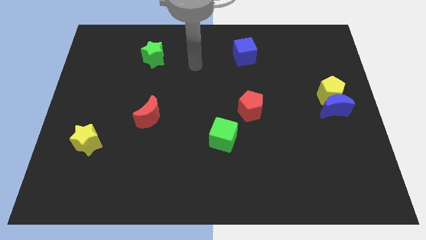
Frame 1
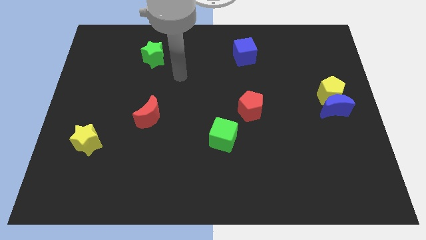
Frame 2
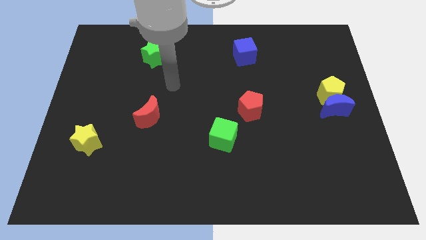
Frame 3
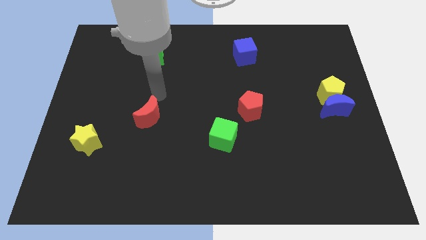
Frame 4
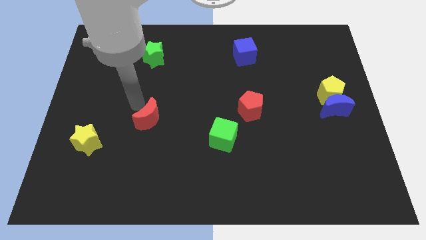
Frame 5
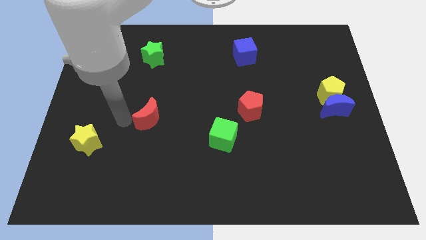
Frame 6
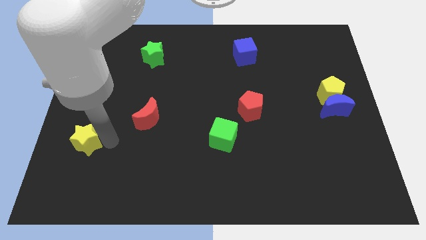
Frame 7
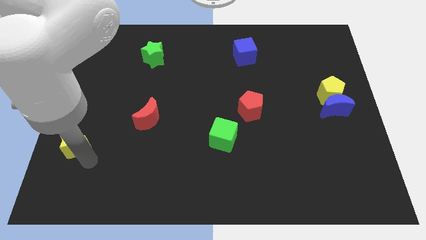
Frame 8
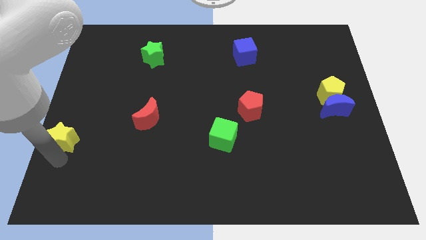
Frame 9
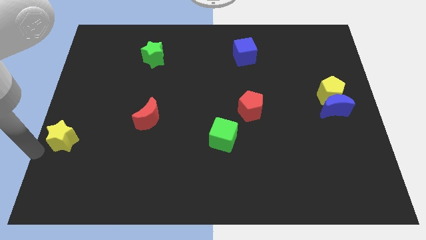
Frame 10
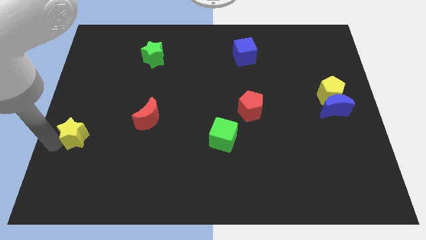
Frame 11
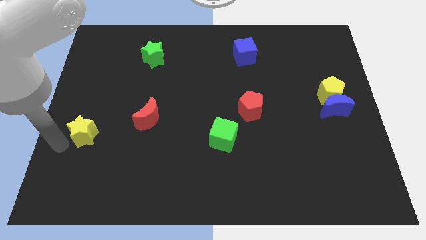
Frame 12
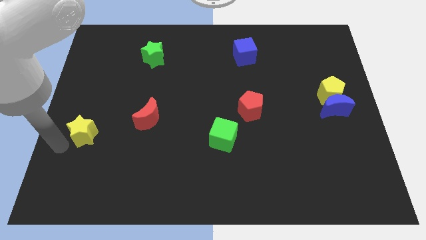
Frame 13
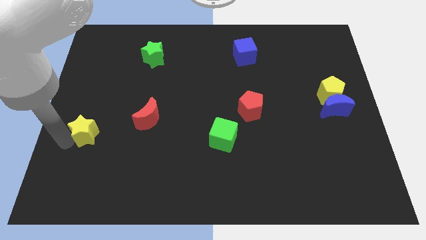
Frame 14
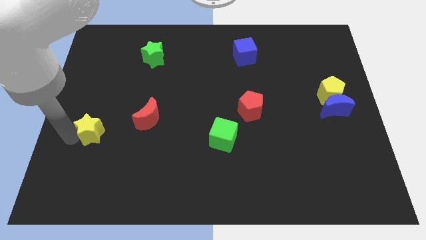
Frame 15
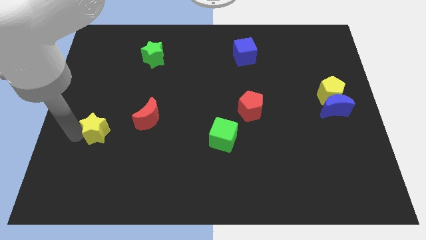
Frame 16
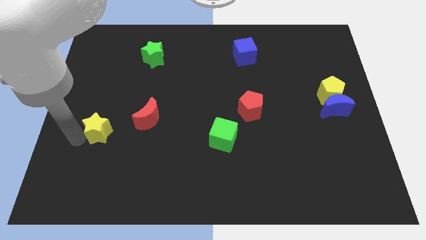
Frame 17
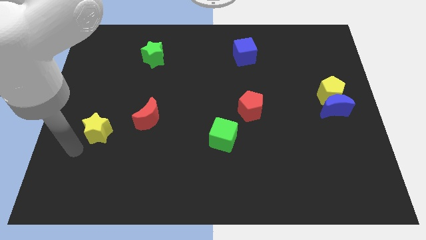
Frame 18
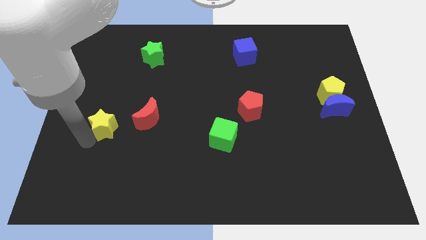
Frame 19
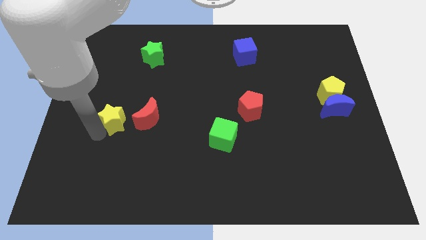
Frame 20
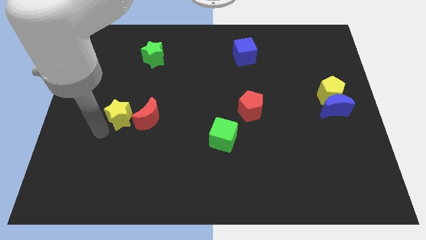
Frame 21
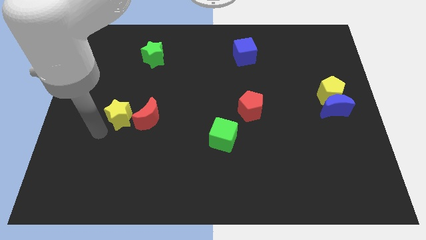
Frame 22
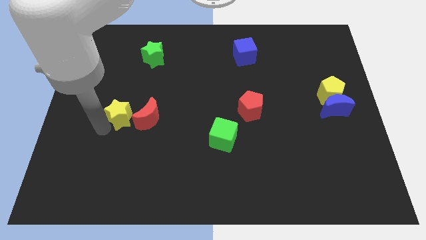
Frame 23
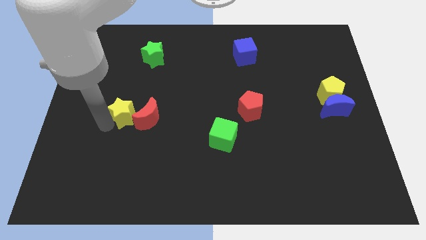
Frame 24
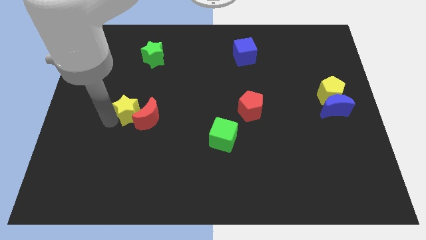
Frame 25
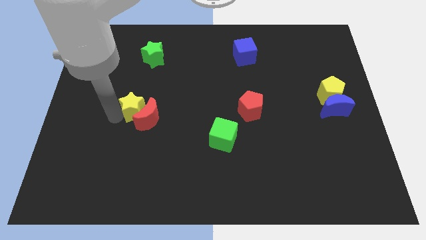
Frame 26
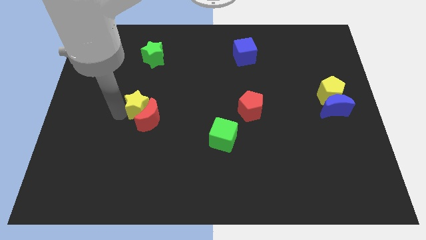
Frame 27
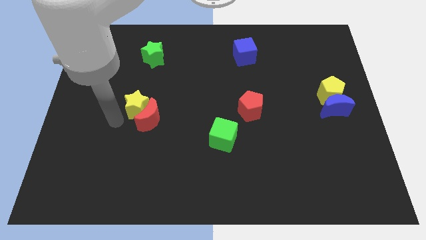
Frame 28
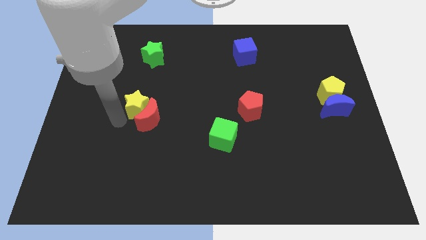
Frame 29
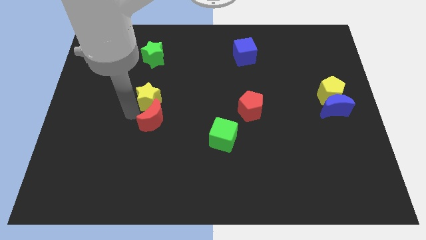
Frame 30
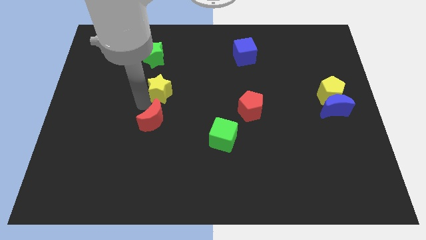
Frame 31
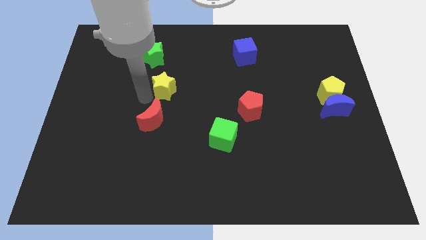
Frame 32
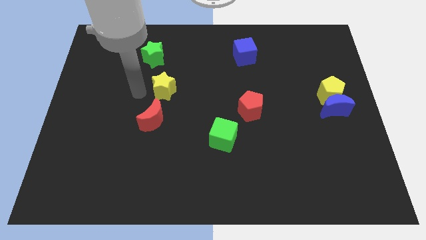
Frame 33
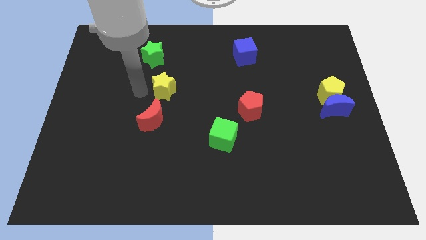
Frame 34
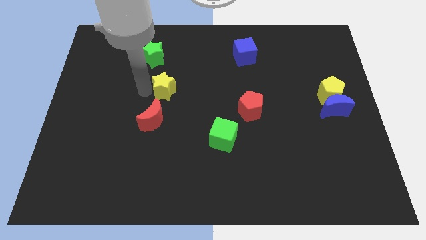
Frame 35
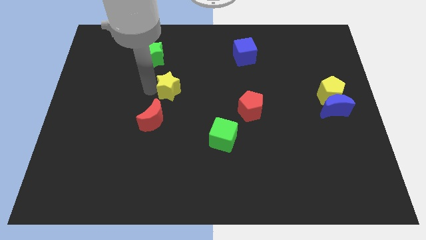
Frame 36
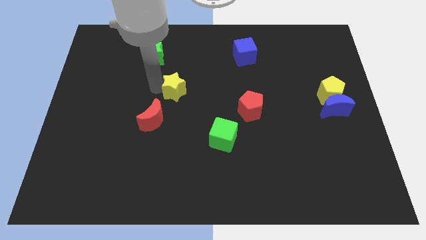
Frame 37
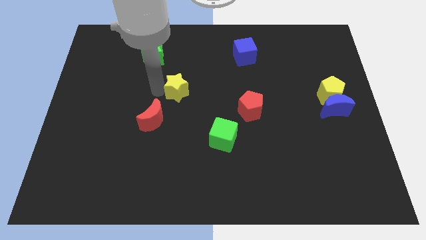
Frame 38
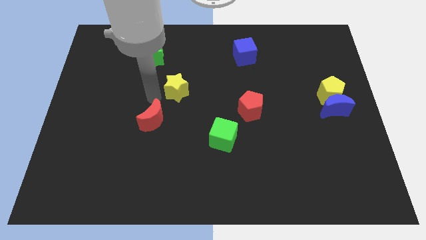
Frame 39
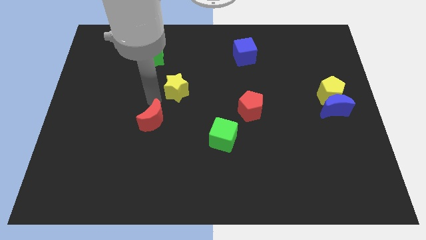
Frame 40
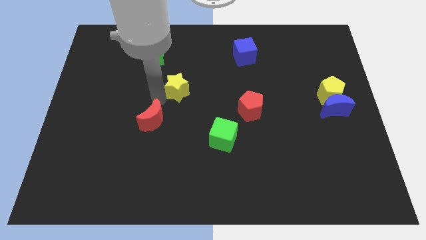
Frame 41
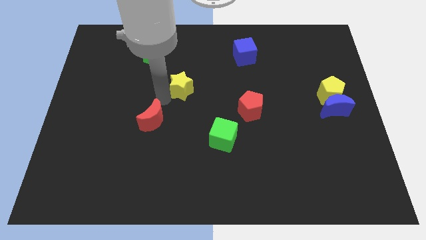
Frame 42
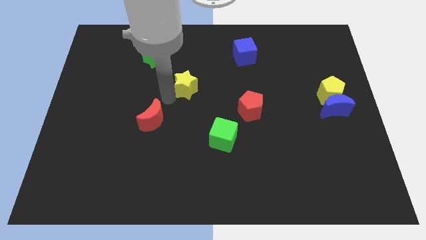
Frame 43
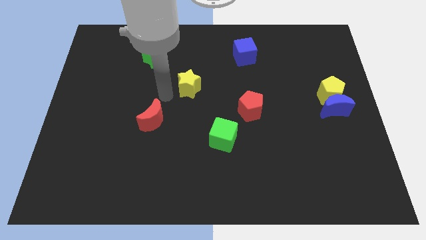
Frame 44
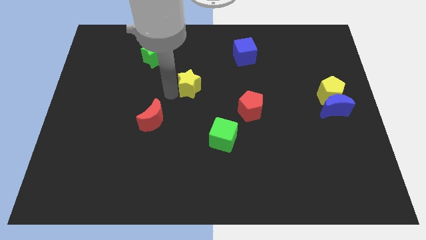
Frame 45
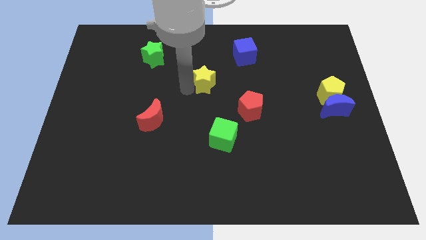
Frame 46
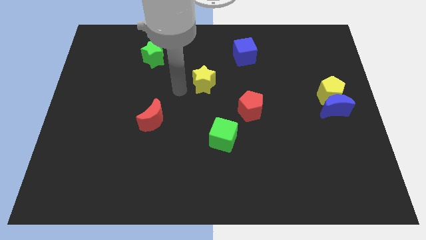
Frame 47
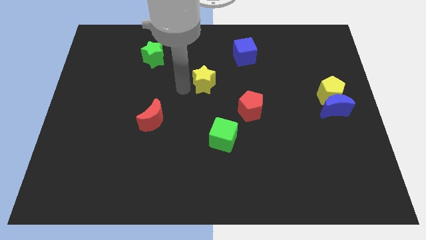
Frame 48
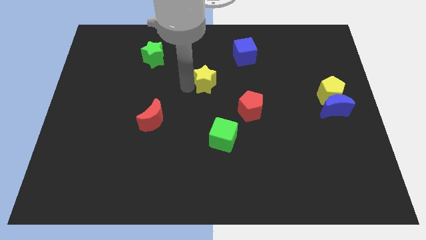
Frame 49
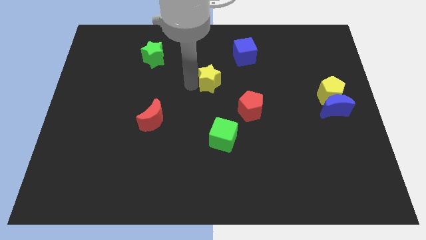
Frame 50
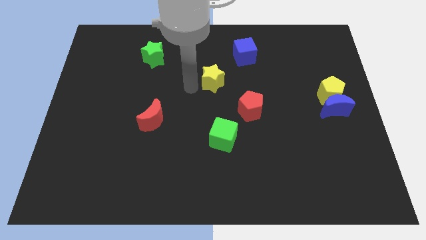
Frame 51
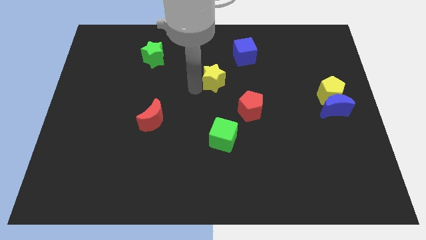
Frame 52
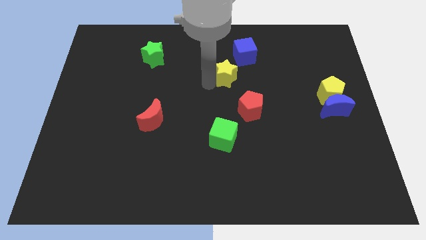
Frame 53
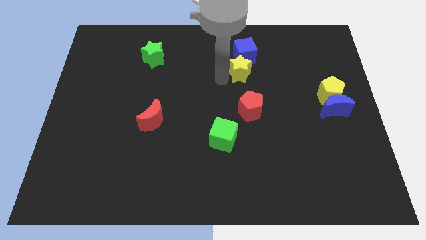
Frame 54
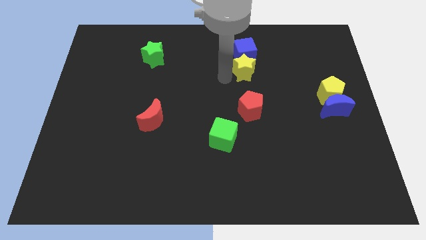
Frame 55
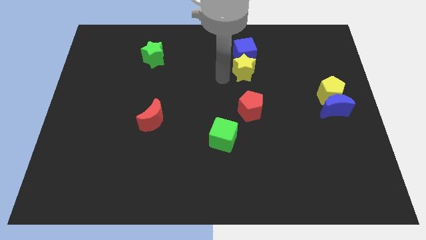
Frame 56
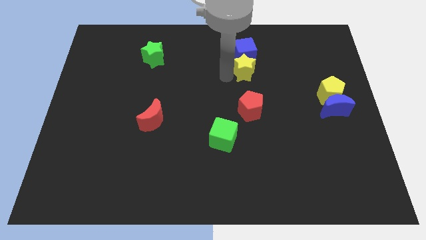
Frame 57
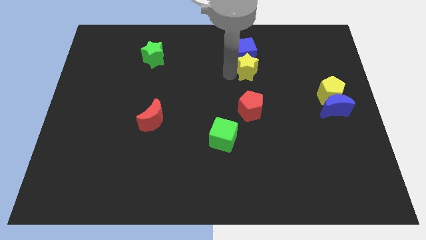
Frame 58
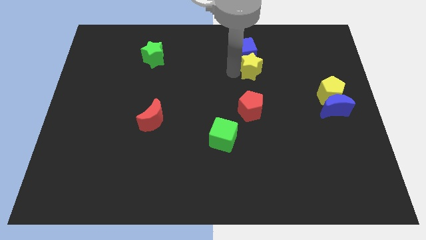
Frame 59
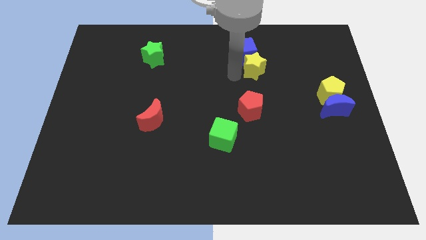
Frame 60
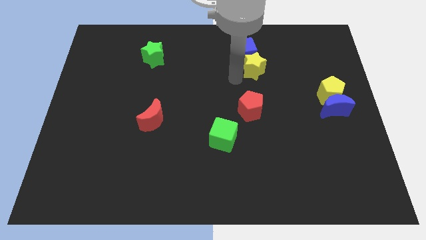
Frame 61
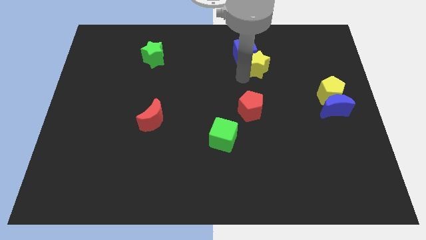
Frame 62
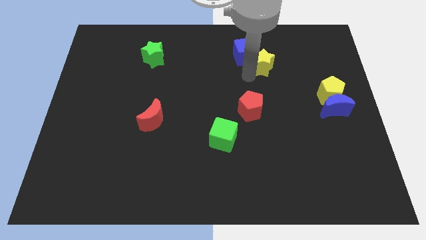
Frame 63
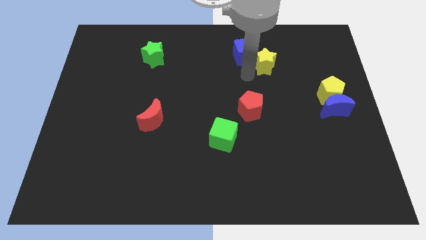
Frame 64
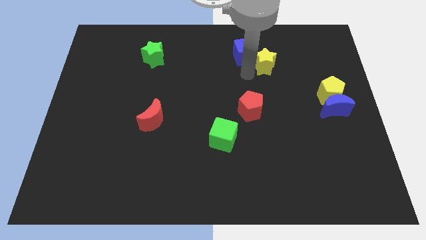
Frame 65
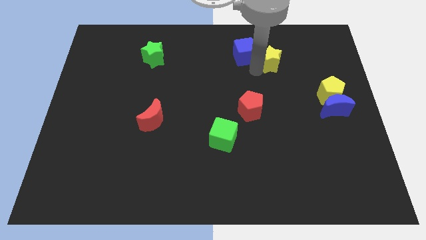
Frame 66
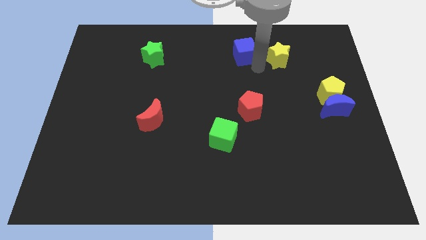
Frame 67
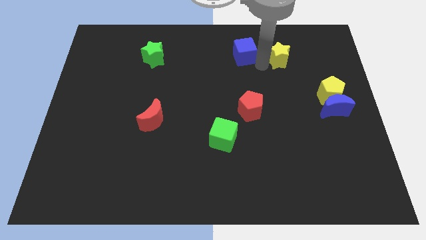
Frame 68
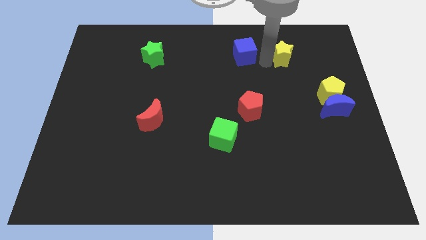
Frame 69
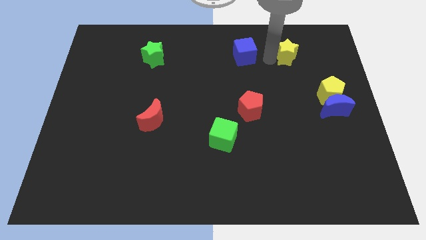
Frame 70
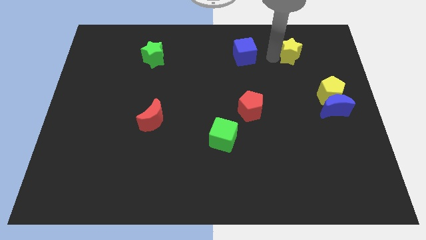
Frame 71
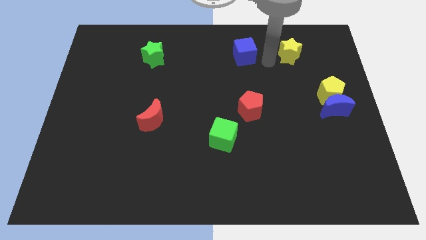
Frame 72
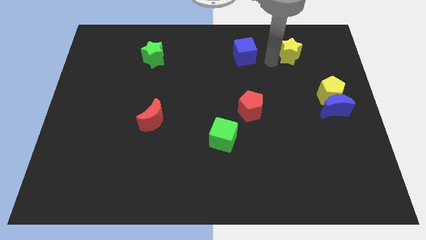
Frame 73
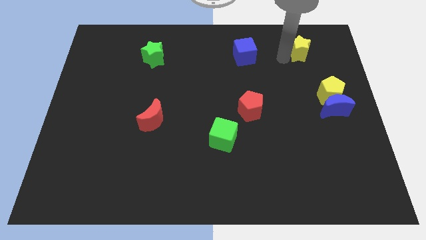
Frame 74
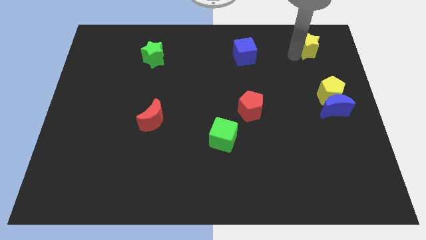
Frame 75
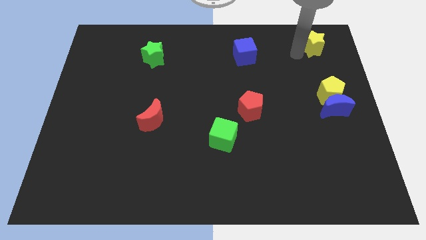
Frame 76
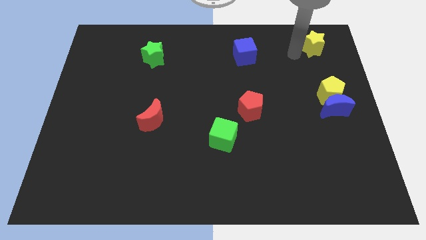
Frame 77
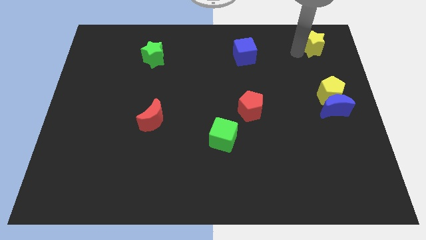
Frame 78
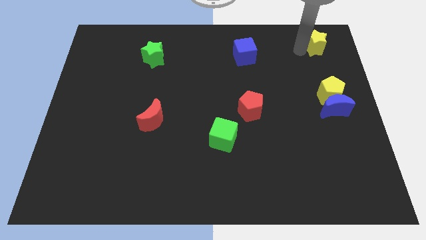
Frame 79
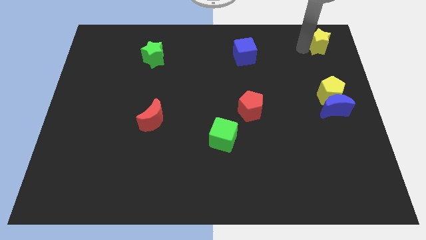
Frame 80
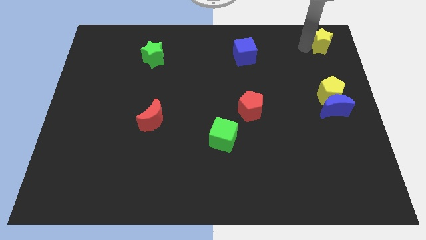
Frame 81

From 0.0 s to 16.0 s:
slide the yellow star to the top right

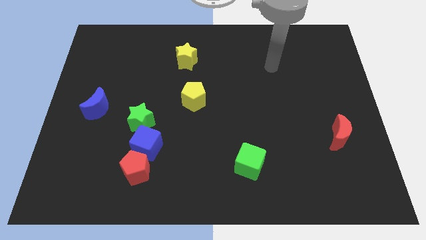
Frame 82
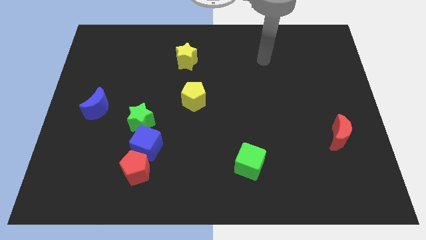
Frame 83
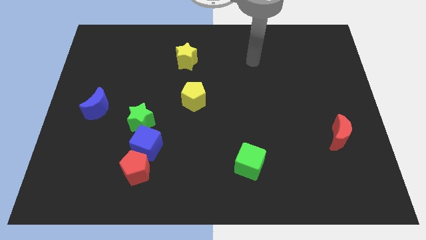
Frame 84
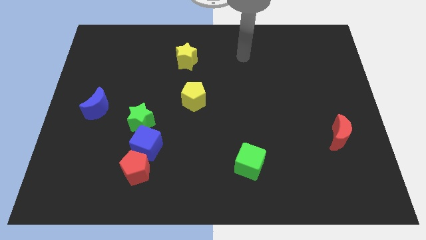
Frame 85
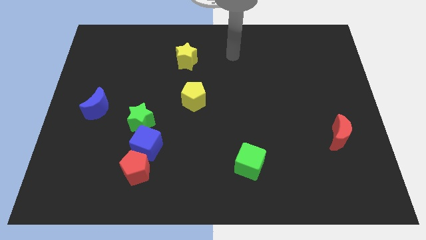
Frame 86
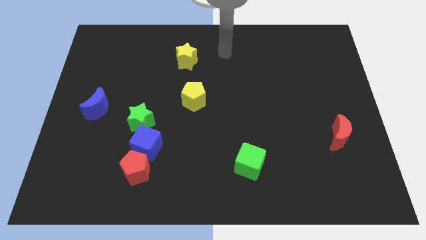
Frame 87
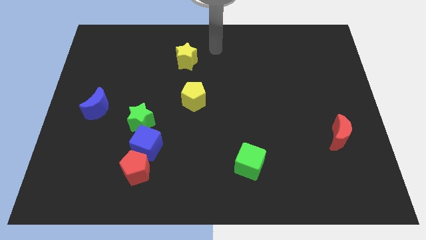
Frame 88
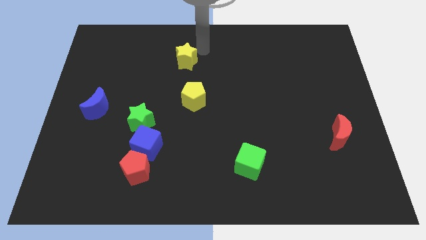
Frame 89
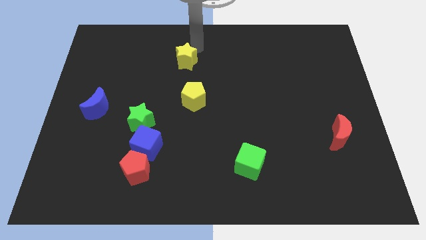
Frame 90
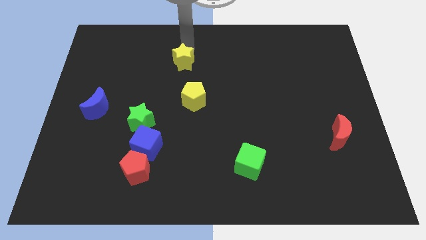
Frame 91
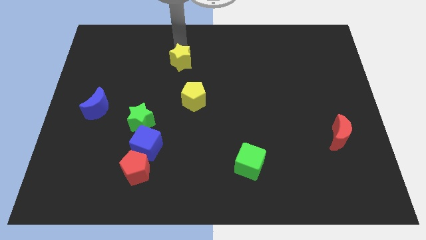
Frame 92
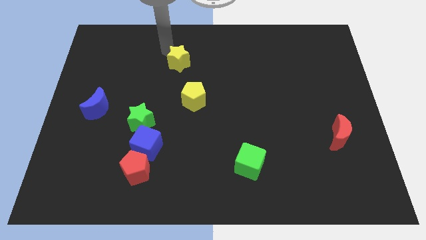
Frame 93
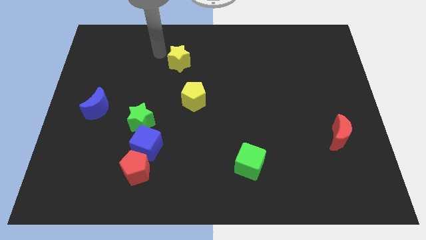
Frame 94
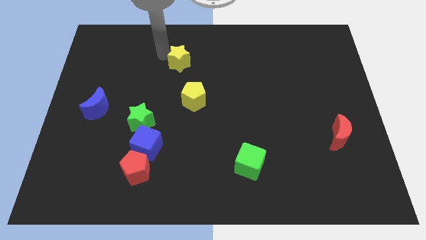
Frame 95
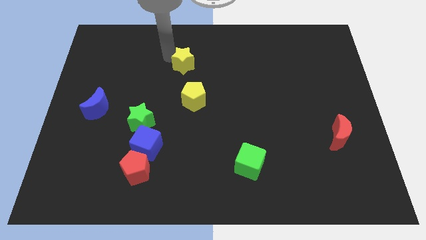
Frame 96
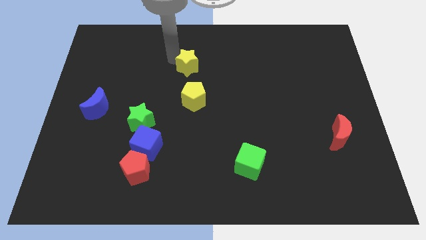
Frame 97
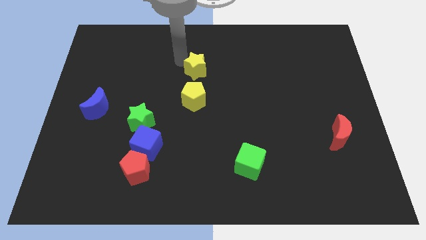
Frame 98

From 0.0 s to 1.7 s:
move the yellow star to the middle
